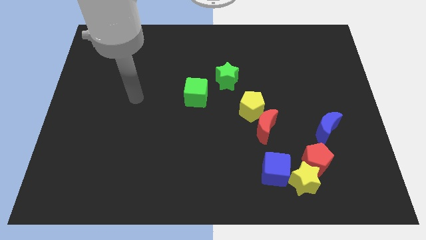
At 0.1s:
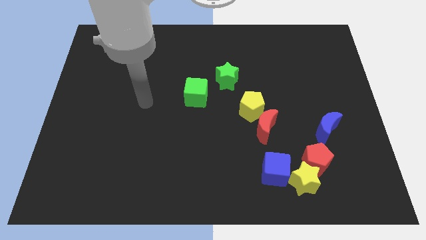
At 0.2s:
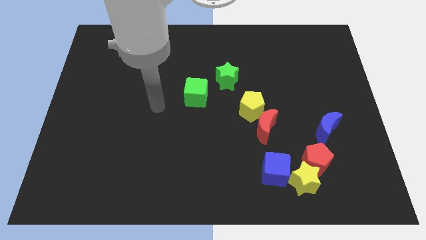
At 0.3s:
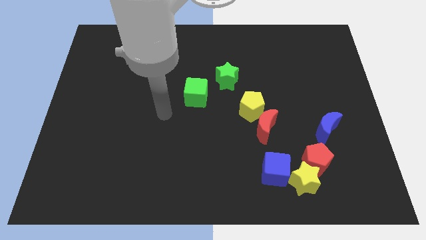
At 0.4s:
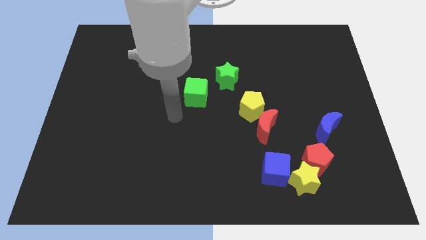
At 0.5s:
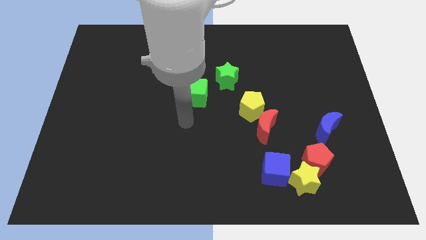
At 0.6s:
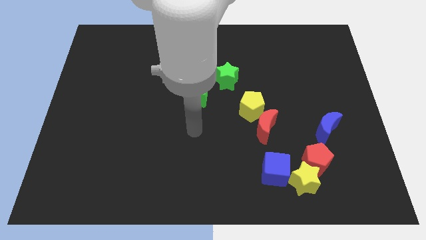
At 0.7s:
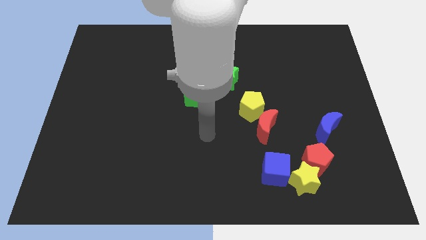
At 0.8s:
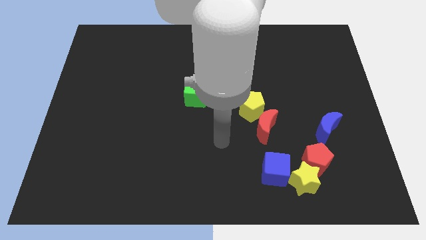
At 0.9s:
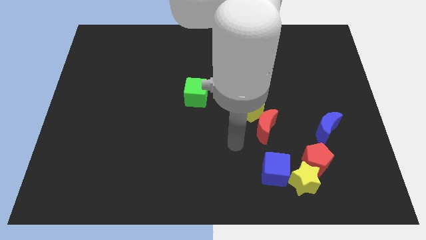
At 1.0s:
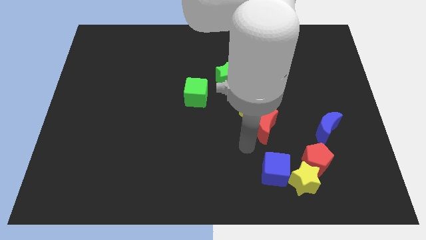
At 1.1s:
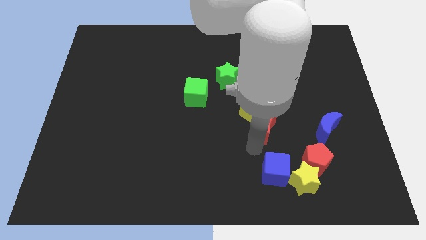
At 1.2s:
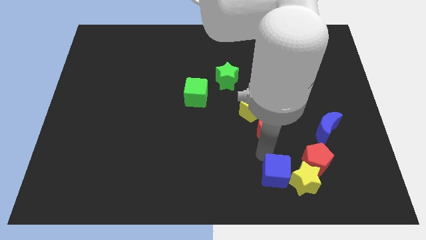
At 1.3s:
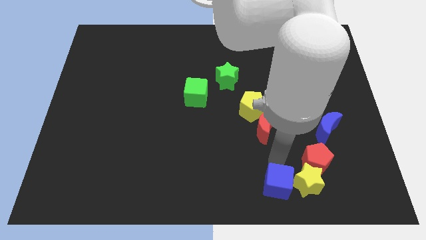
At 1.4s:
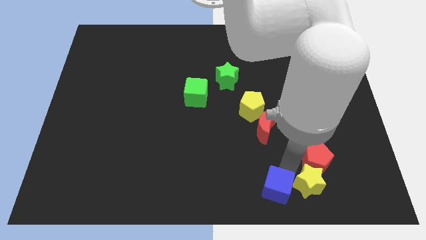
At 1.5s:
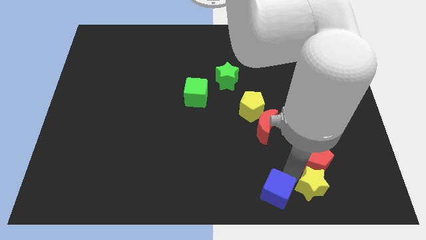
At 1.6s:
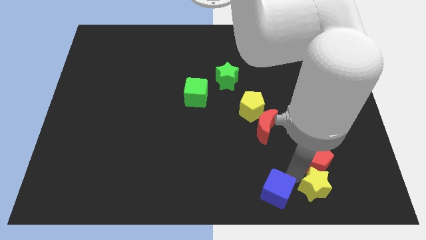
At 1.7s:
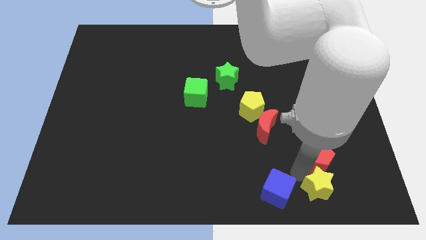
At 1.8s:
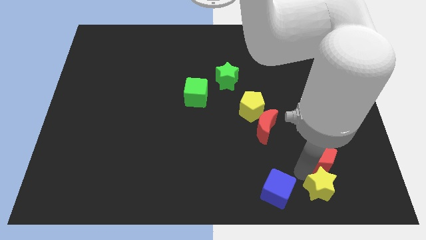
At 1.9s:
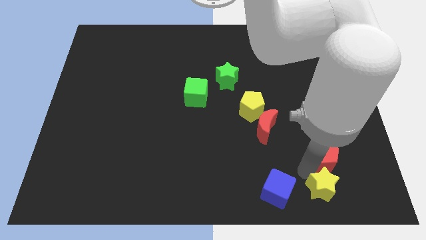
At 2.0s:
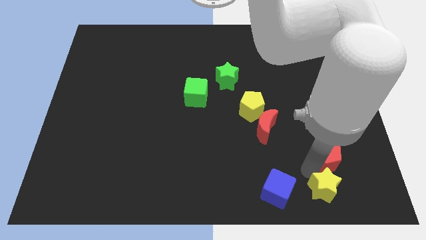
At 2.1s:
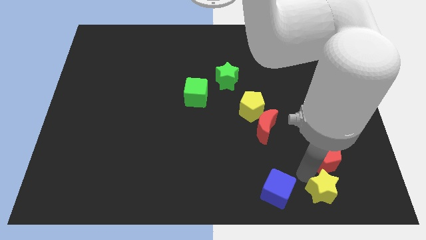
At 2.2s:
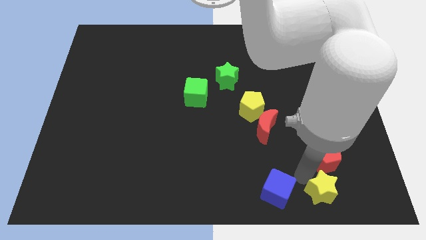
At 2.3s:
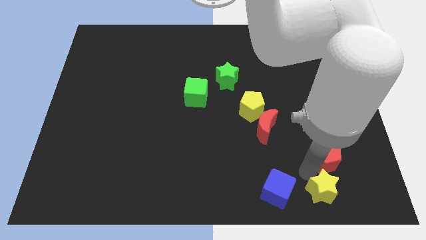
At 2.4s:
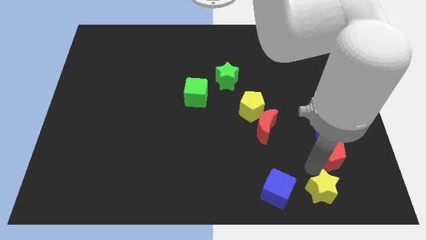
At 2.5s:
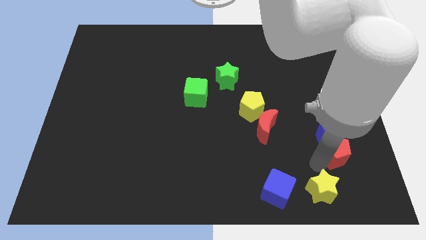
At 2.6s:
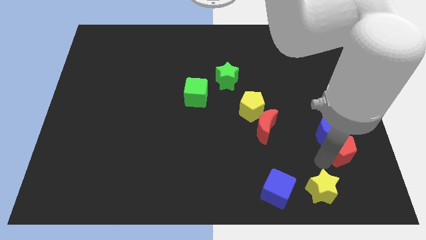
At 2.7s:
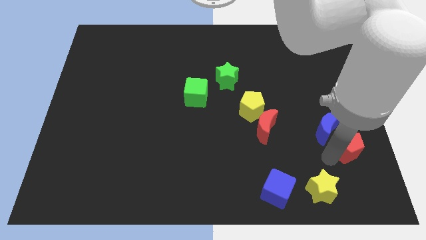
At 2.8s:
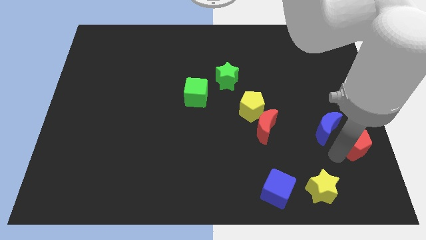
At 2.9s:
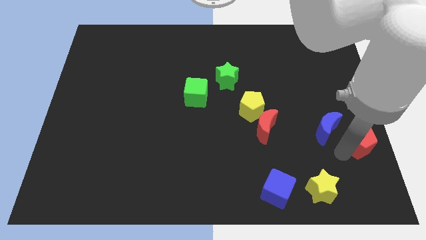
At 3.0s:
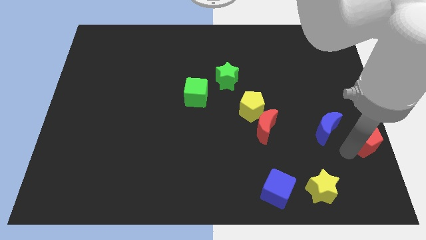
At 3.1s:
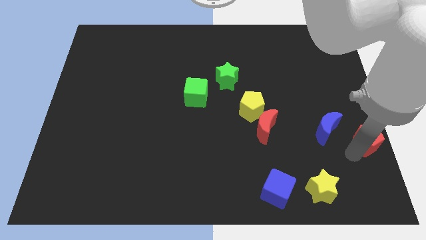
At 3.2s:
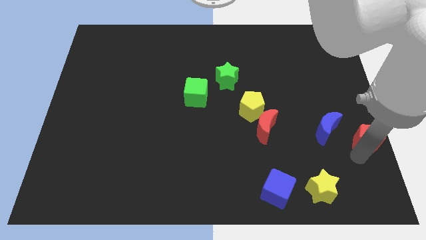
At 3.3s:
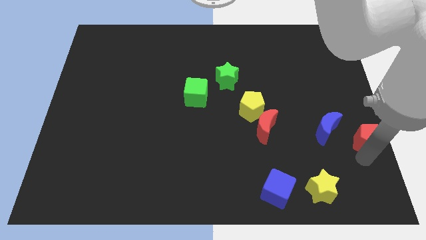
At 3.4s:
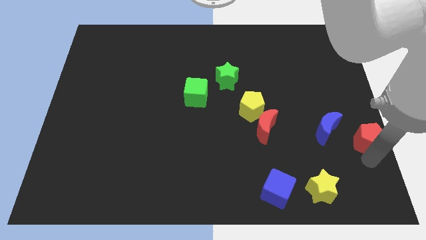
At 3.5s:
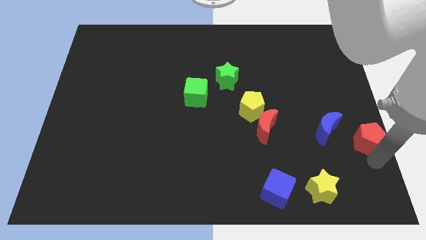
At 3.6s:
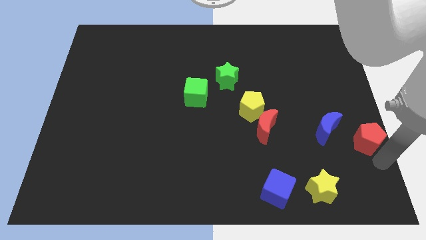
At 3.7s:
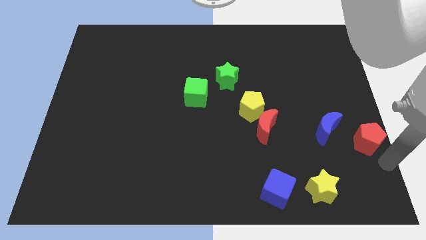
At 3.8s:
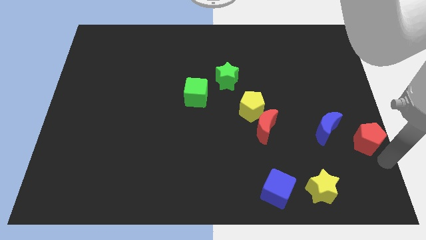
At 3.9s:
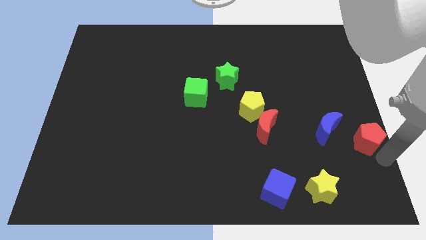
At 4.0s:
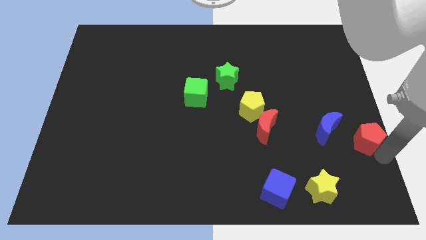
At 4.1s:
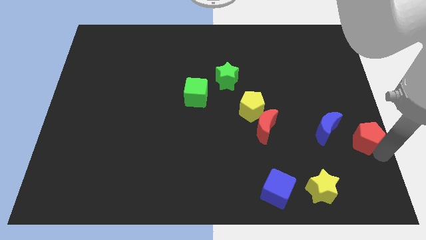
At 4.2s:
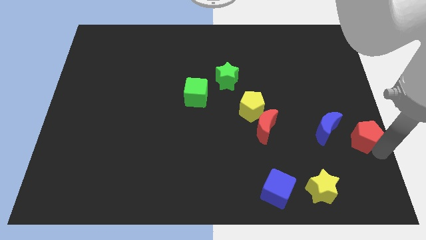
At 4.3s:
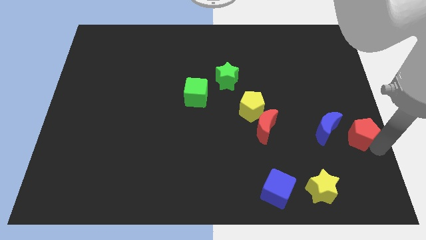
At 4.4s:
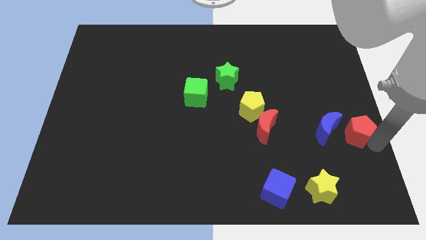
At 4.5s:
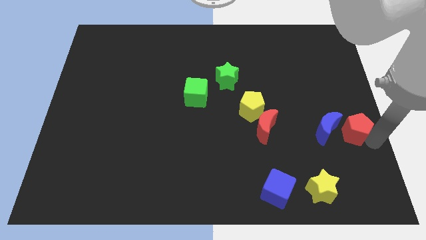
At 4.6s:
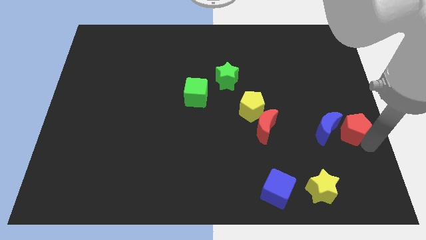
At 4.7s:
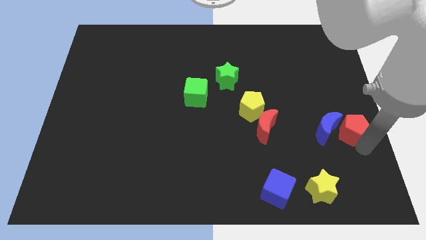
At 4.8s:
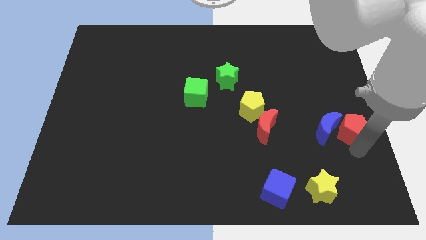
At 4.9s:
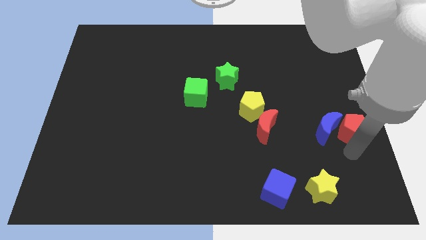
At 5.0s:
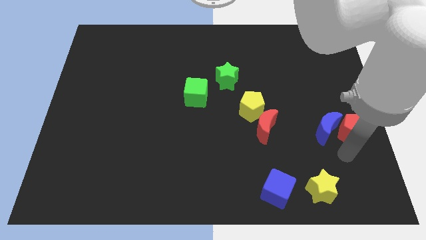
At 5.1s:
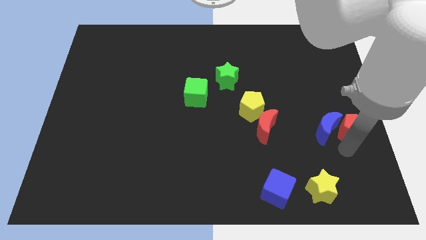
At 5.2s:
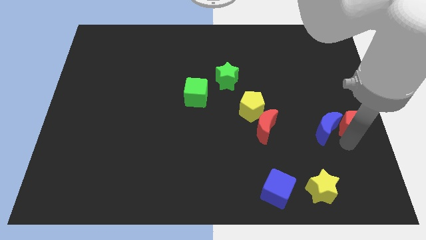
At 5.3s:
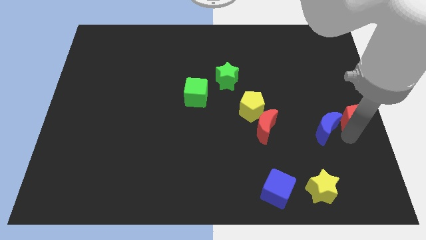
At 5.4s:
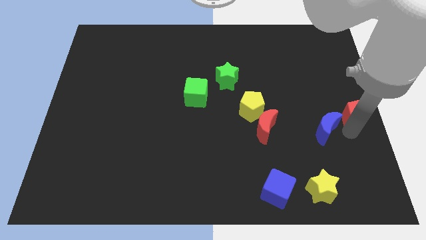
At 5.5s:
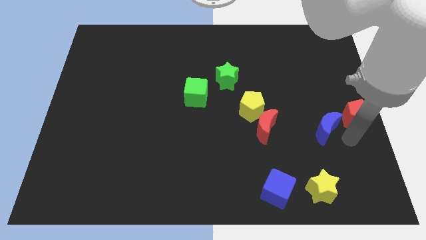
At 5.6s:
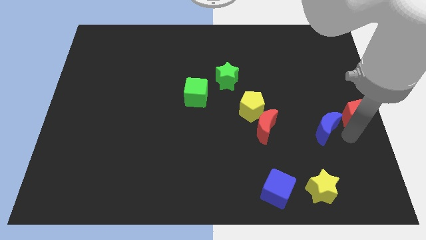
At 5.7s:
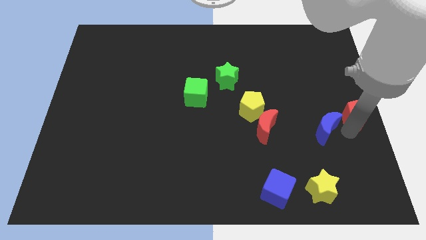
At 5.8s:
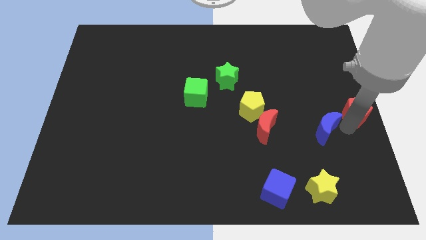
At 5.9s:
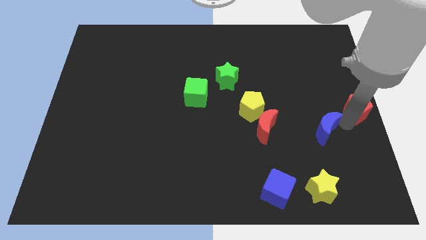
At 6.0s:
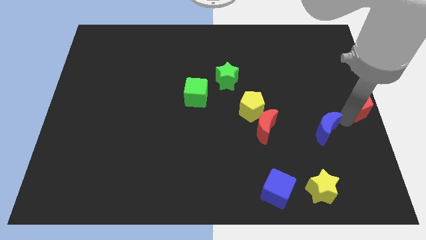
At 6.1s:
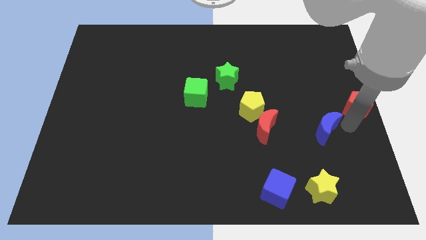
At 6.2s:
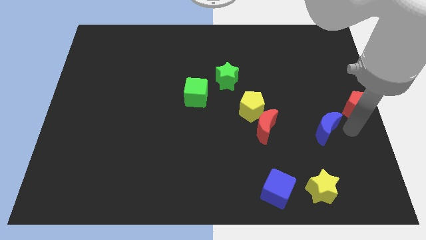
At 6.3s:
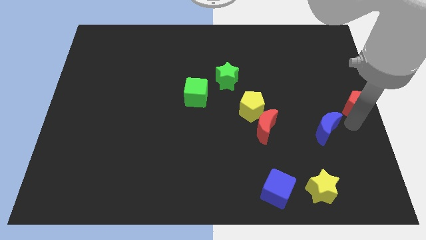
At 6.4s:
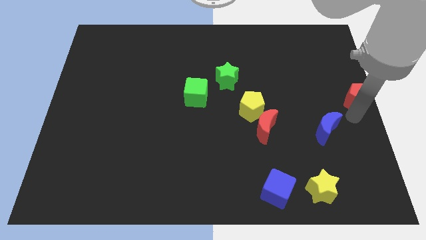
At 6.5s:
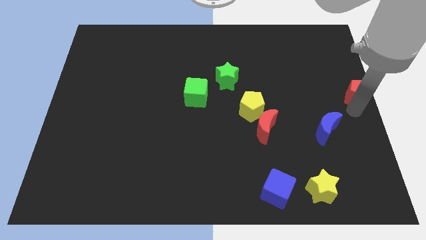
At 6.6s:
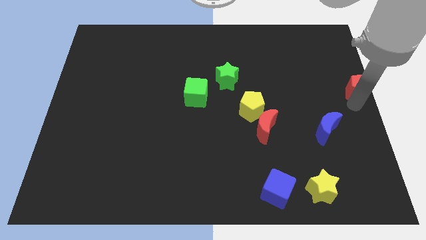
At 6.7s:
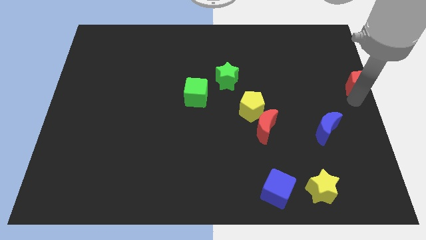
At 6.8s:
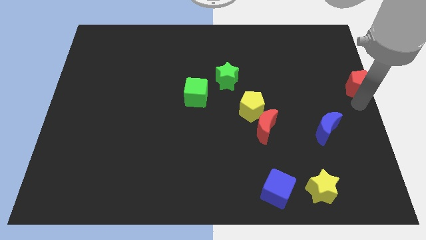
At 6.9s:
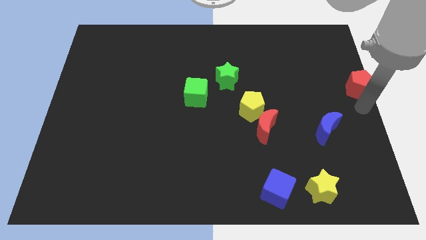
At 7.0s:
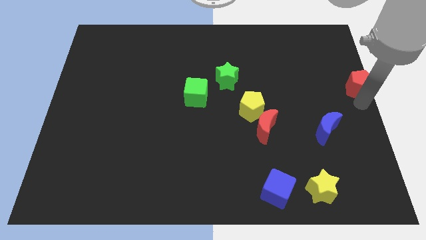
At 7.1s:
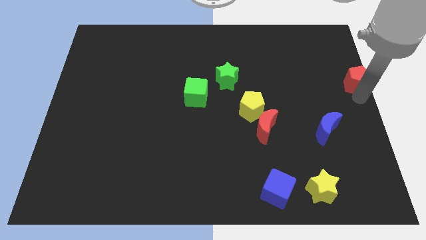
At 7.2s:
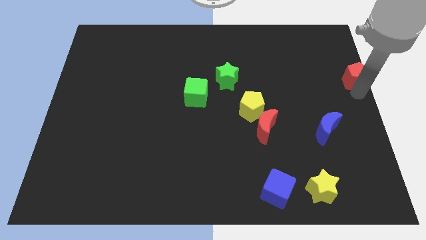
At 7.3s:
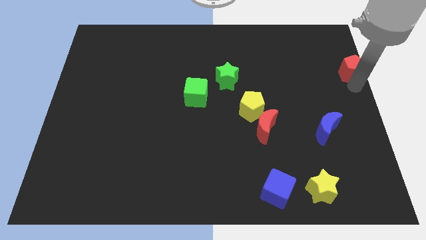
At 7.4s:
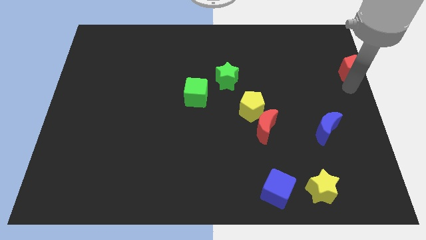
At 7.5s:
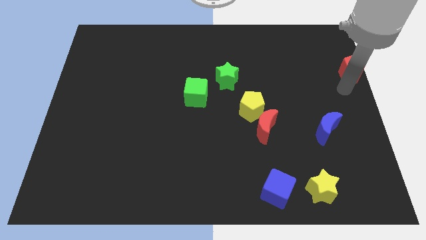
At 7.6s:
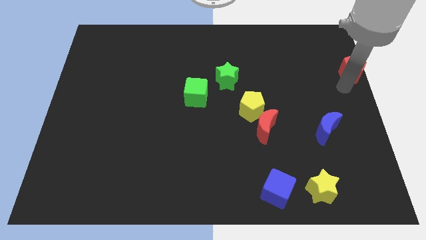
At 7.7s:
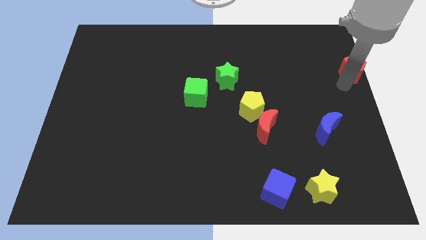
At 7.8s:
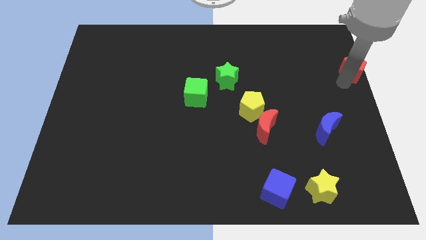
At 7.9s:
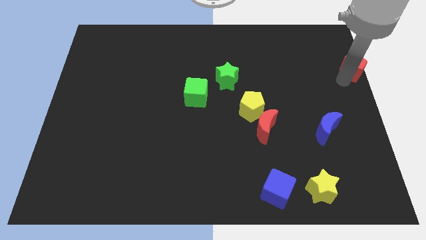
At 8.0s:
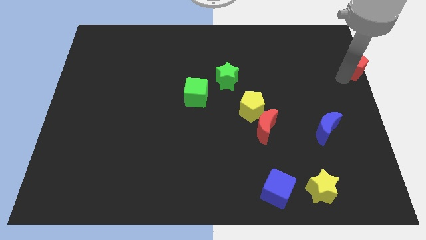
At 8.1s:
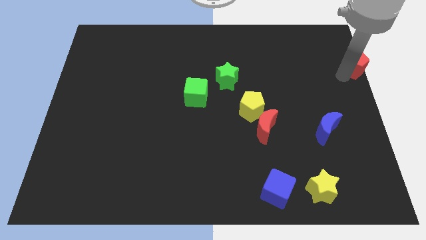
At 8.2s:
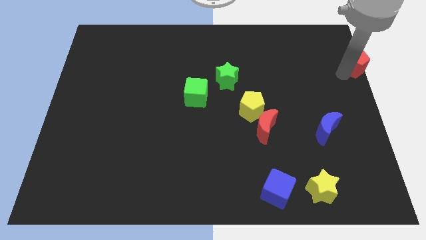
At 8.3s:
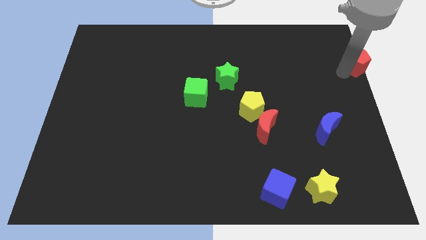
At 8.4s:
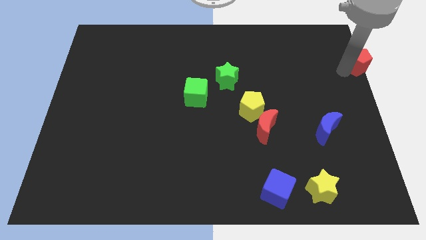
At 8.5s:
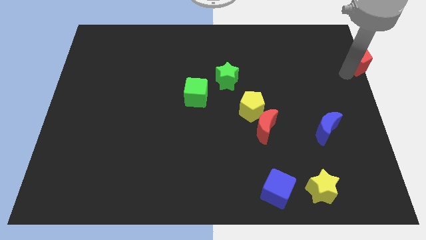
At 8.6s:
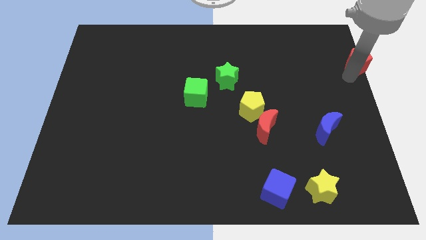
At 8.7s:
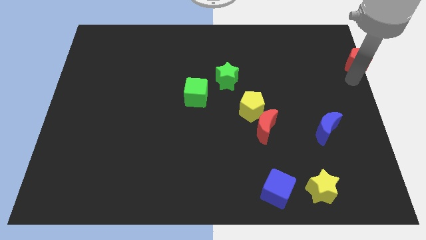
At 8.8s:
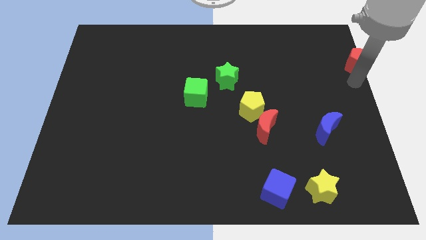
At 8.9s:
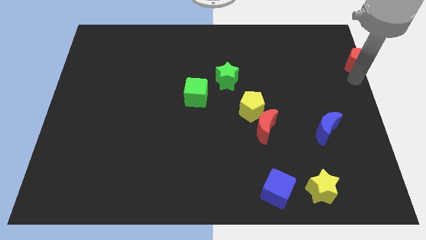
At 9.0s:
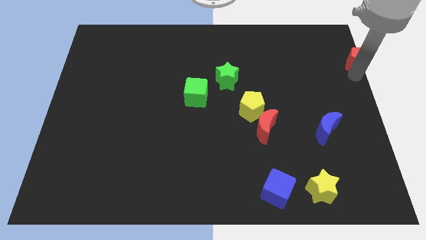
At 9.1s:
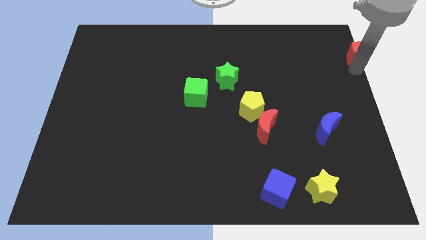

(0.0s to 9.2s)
move the red pentagon to the top right of the board
